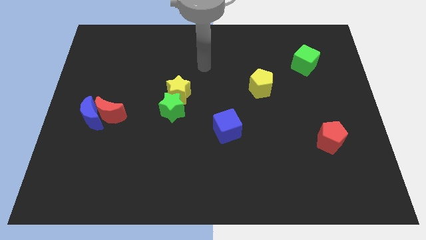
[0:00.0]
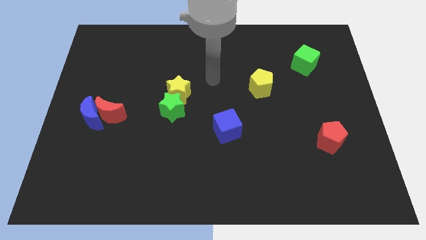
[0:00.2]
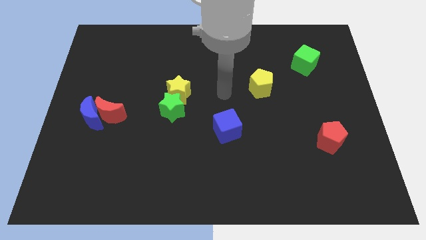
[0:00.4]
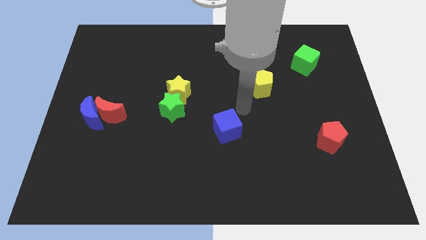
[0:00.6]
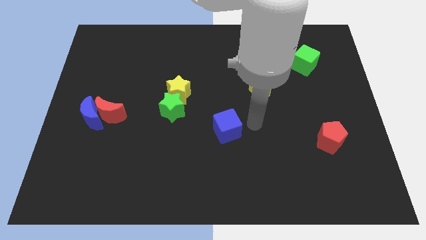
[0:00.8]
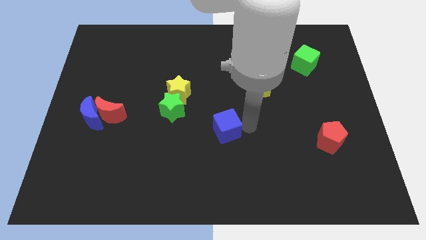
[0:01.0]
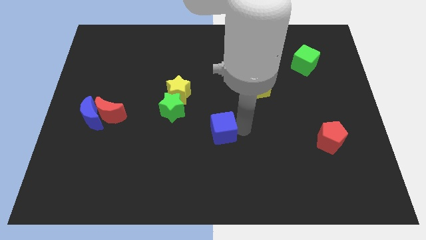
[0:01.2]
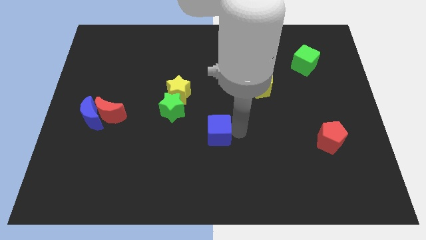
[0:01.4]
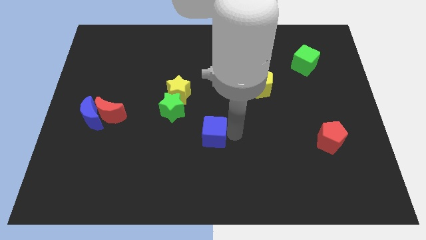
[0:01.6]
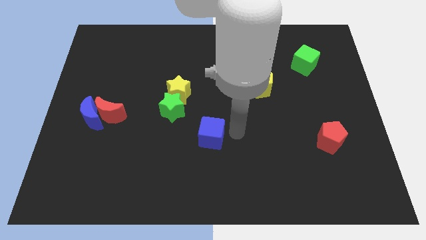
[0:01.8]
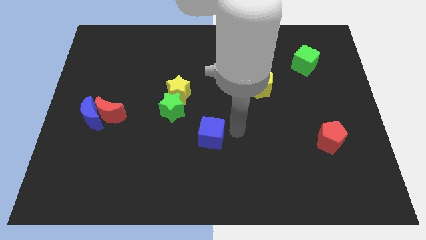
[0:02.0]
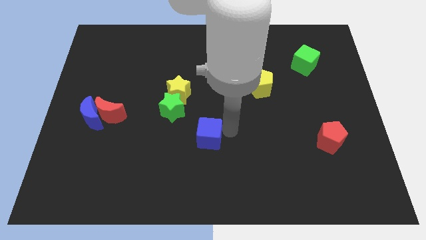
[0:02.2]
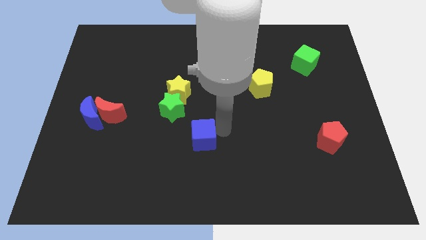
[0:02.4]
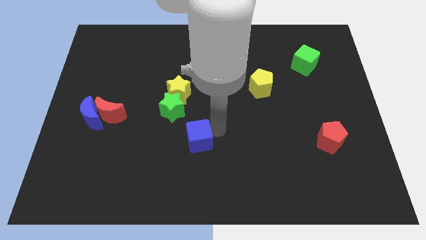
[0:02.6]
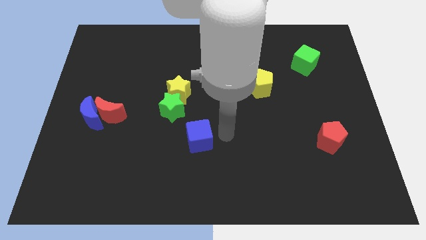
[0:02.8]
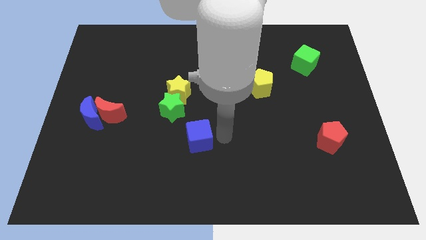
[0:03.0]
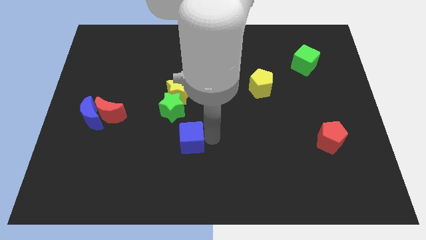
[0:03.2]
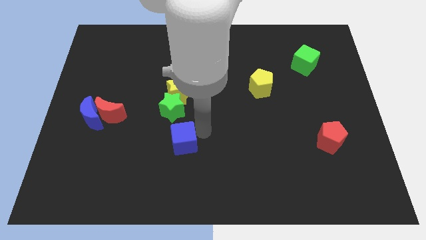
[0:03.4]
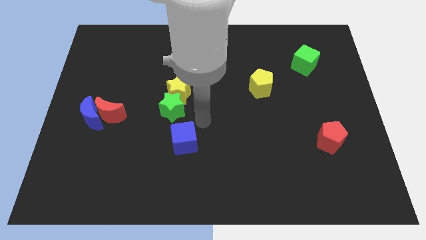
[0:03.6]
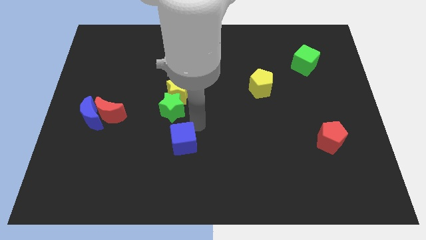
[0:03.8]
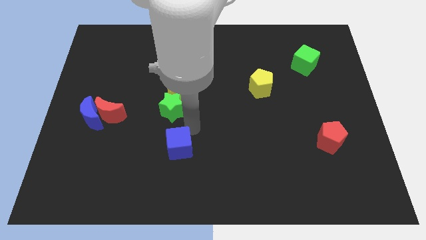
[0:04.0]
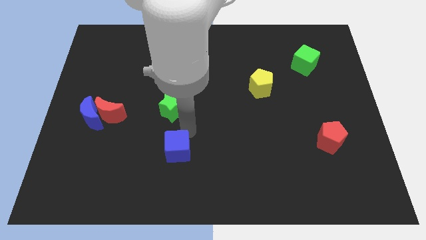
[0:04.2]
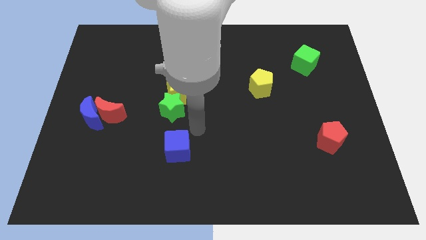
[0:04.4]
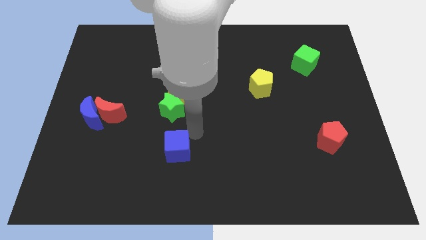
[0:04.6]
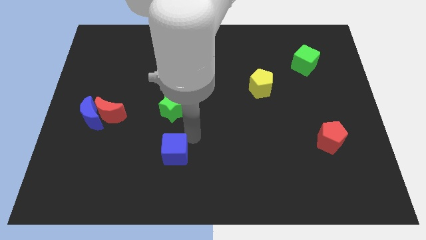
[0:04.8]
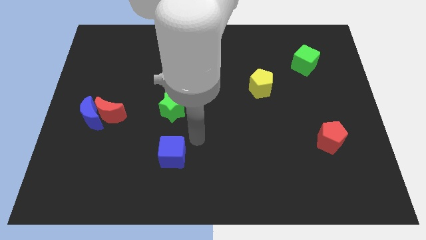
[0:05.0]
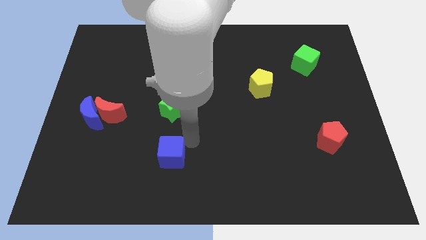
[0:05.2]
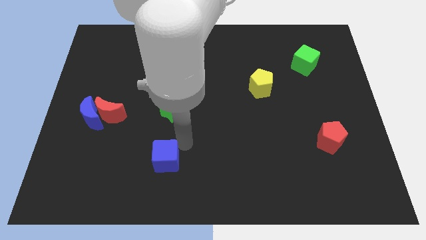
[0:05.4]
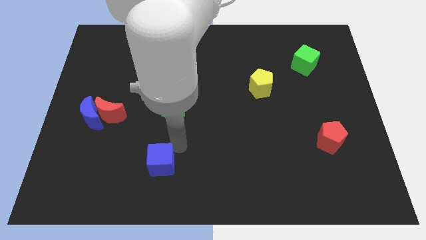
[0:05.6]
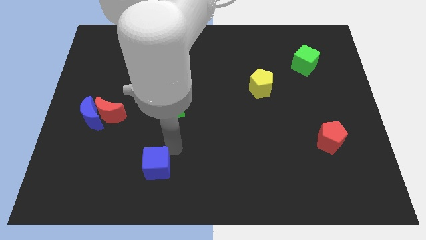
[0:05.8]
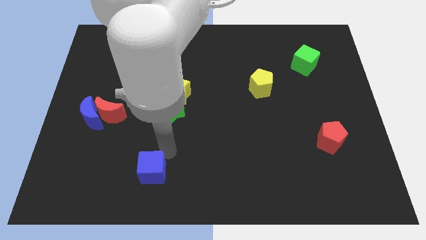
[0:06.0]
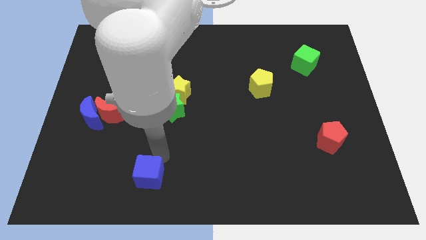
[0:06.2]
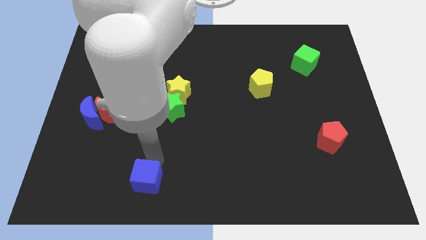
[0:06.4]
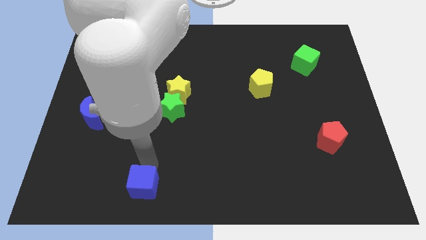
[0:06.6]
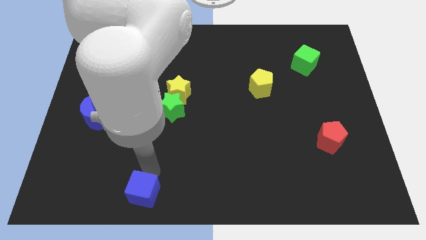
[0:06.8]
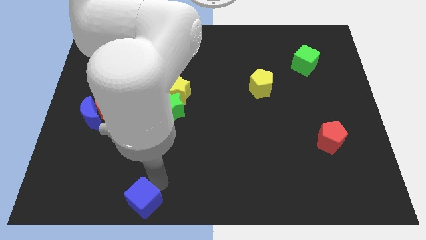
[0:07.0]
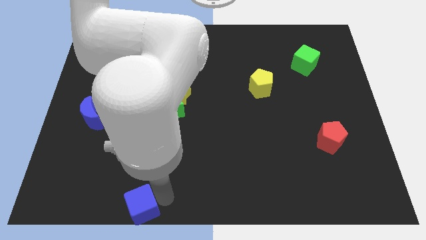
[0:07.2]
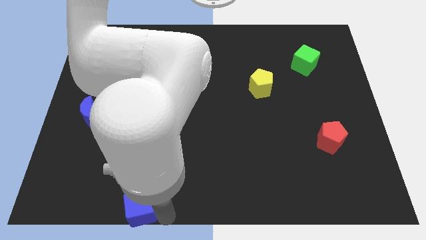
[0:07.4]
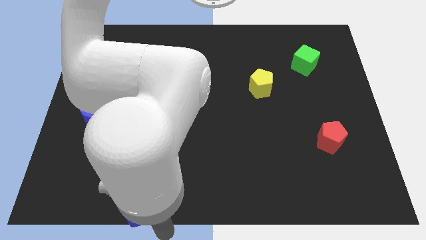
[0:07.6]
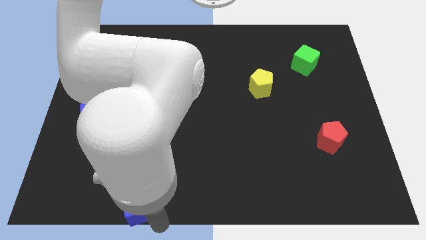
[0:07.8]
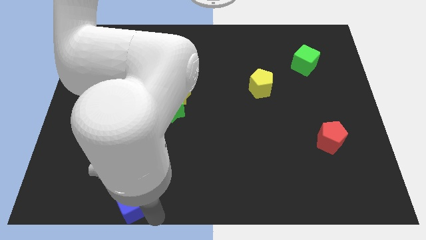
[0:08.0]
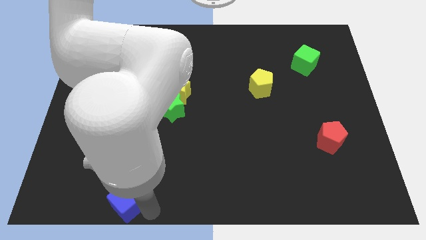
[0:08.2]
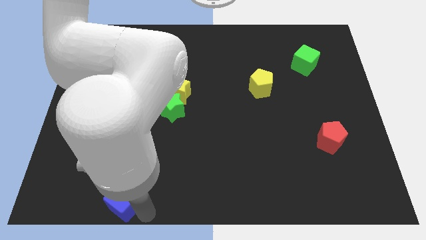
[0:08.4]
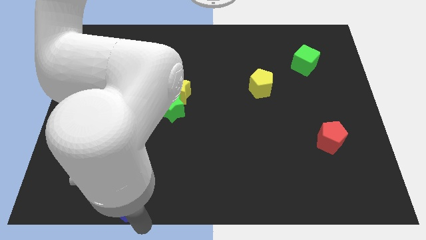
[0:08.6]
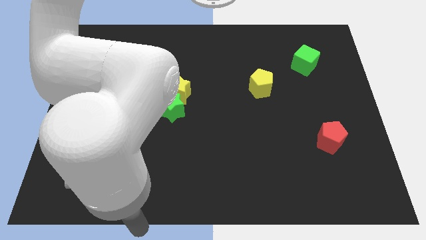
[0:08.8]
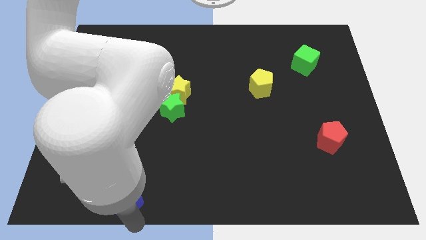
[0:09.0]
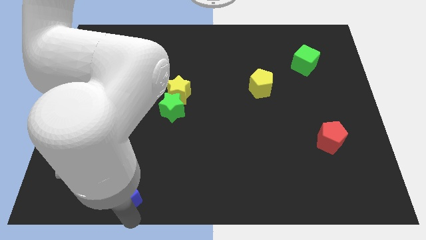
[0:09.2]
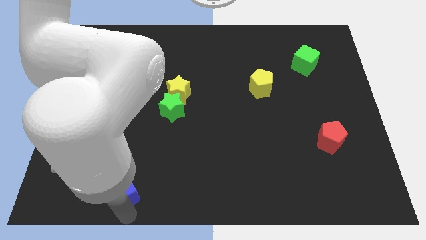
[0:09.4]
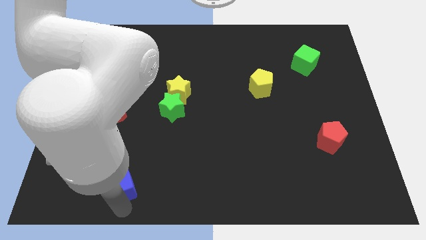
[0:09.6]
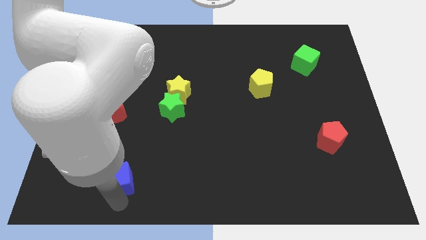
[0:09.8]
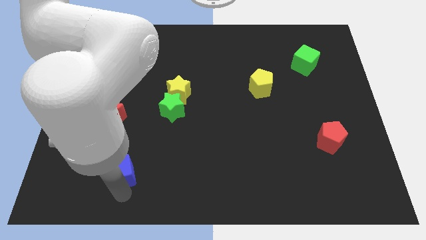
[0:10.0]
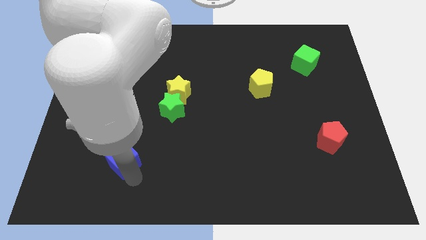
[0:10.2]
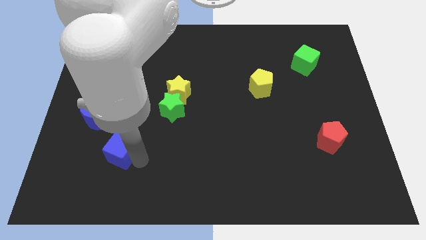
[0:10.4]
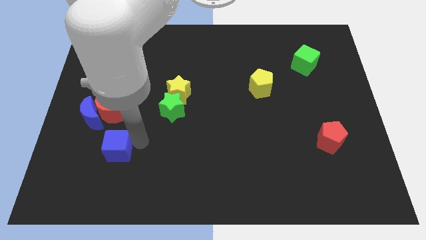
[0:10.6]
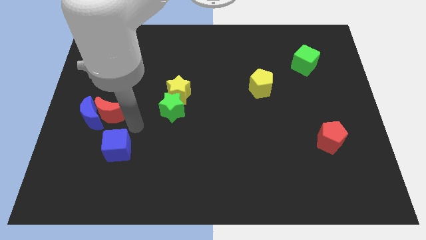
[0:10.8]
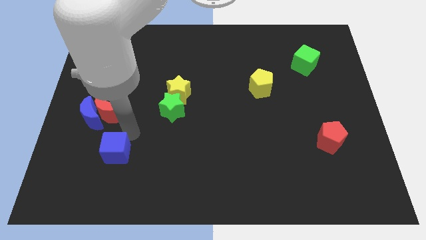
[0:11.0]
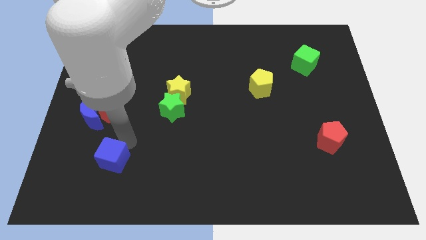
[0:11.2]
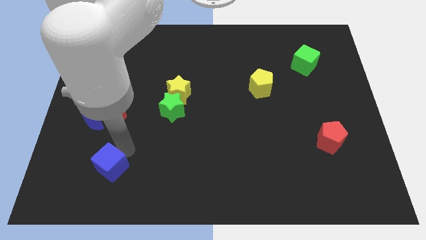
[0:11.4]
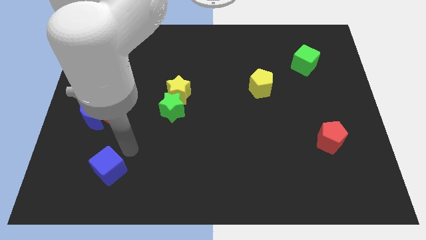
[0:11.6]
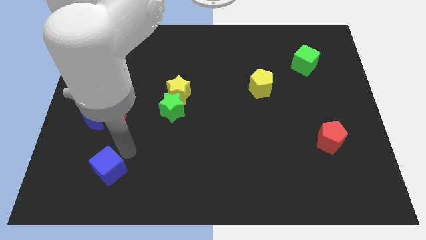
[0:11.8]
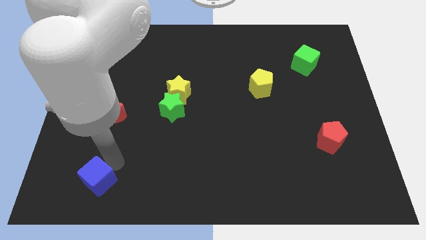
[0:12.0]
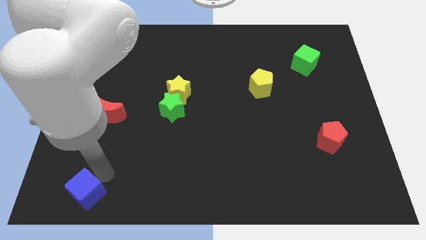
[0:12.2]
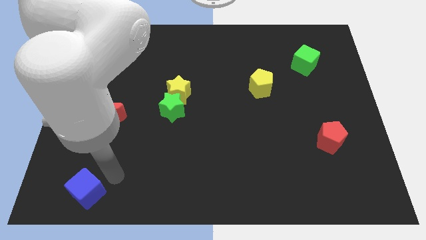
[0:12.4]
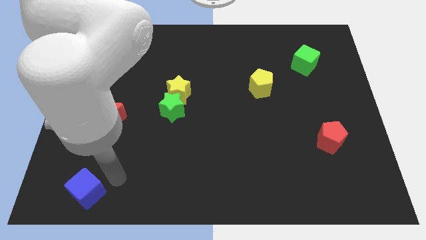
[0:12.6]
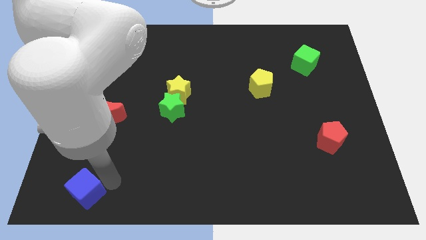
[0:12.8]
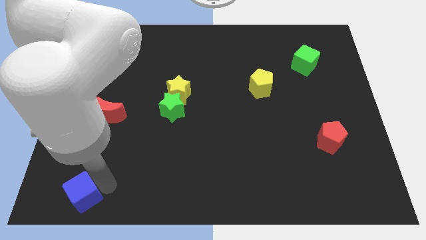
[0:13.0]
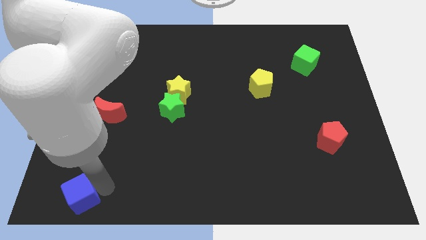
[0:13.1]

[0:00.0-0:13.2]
push the blue cube to the lower left corner
